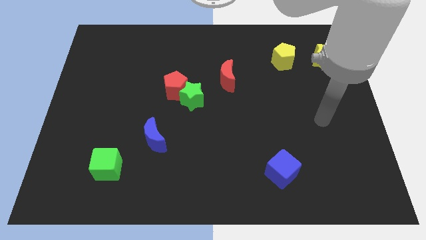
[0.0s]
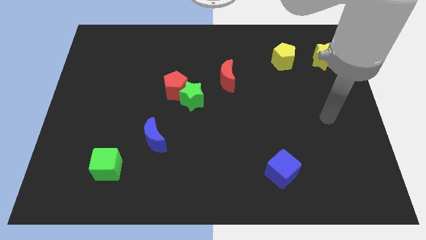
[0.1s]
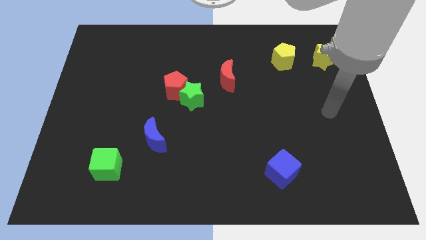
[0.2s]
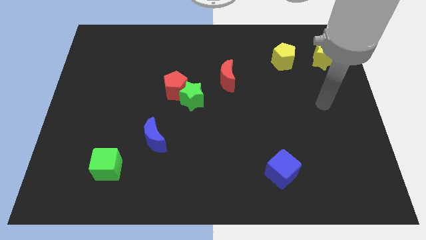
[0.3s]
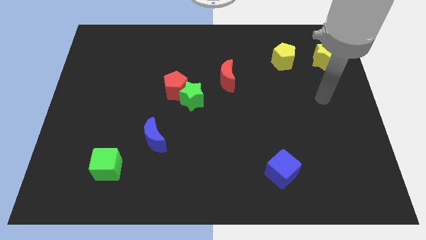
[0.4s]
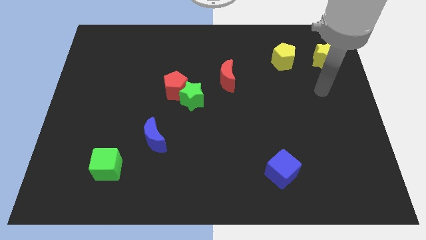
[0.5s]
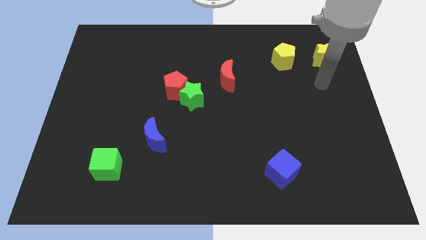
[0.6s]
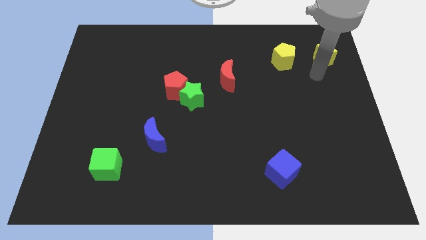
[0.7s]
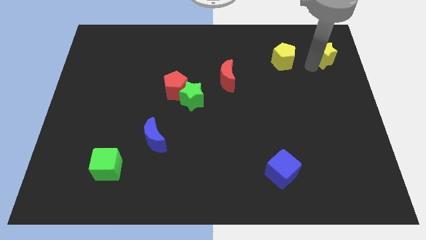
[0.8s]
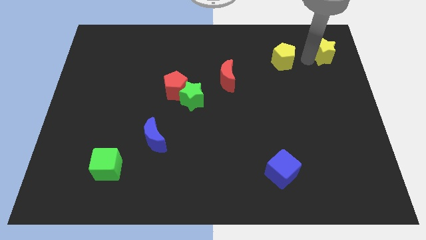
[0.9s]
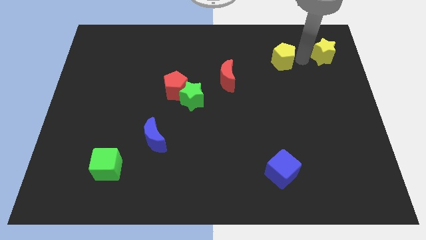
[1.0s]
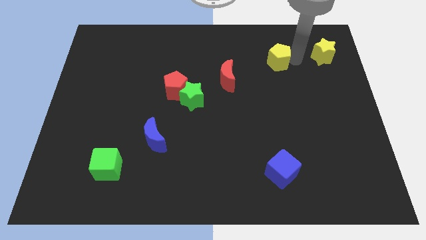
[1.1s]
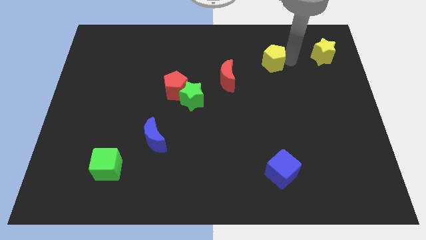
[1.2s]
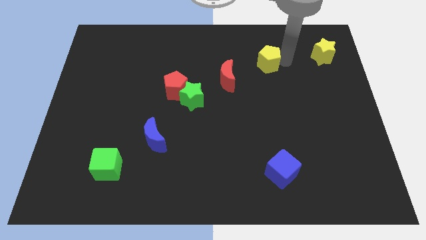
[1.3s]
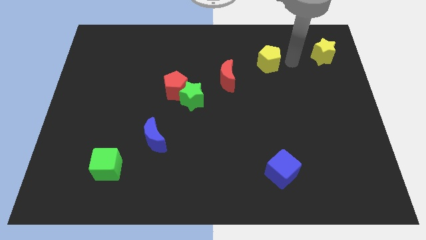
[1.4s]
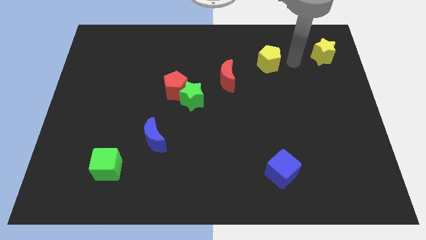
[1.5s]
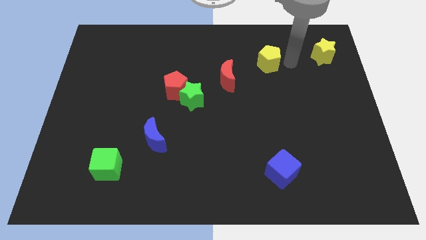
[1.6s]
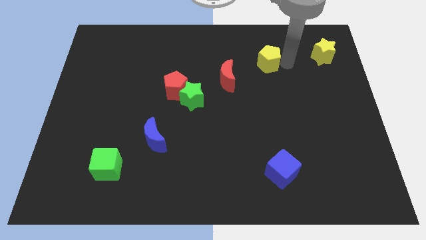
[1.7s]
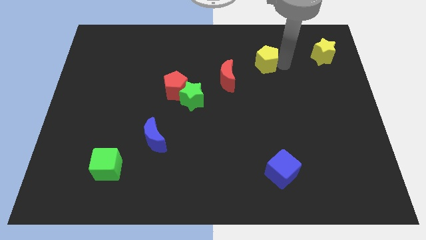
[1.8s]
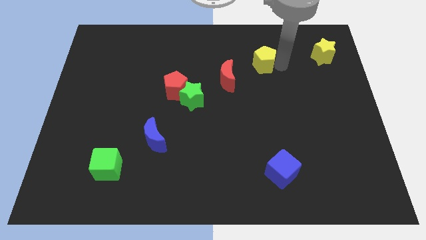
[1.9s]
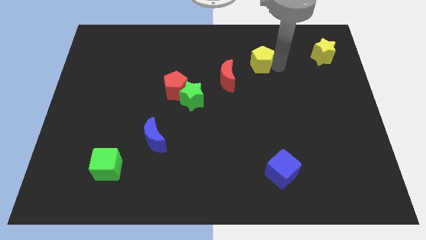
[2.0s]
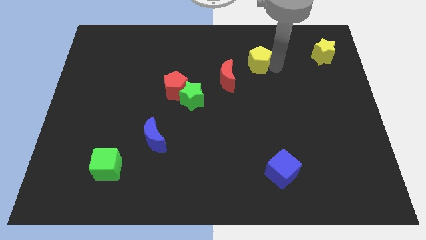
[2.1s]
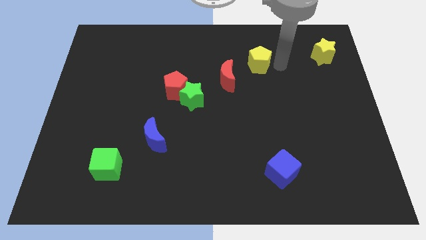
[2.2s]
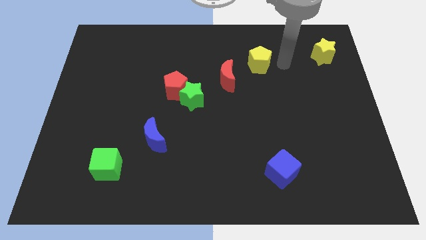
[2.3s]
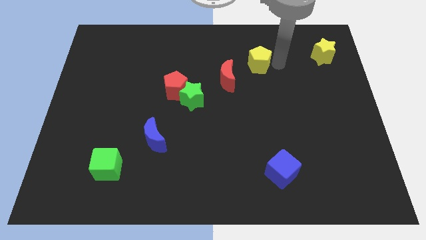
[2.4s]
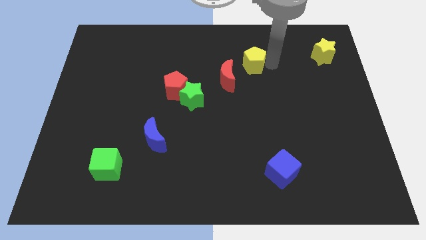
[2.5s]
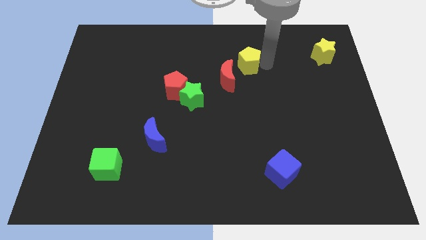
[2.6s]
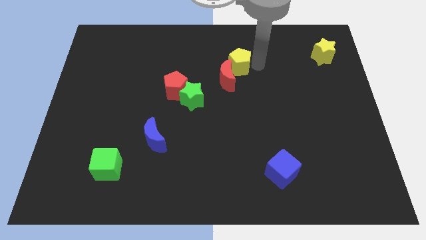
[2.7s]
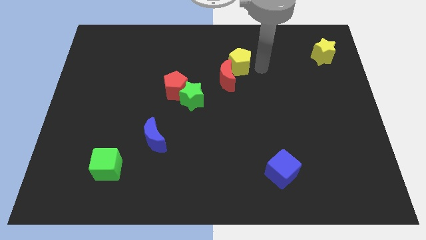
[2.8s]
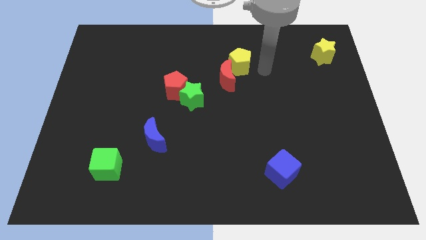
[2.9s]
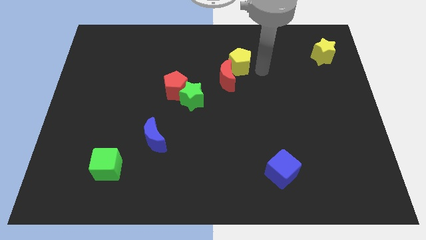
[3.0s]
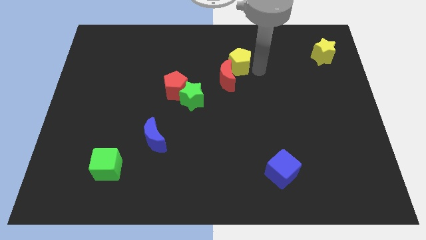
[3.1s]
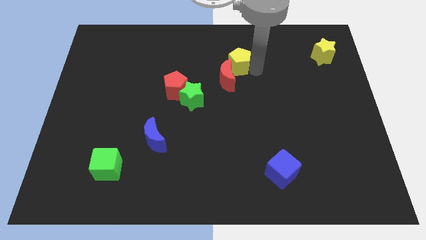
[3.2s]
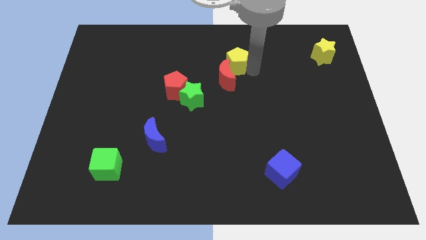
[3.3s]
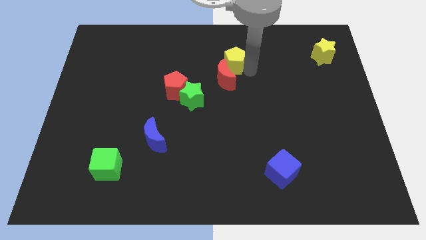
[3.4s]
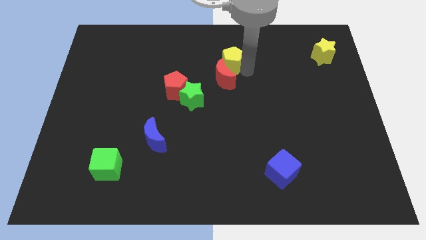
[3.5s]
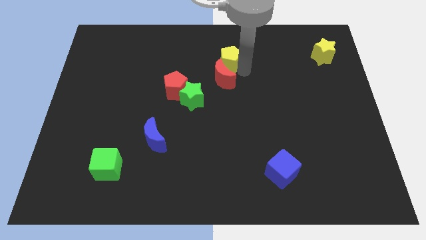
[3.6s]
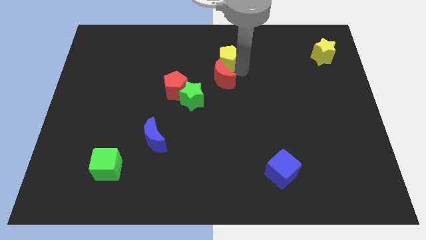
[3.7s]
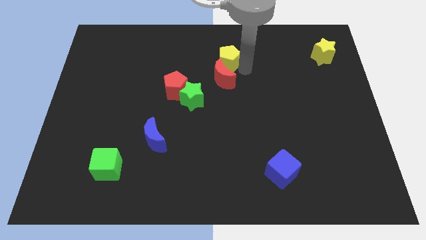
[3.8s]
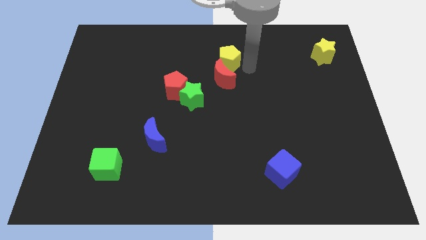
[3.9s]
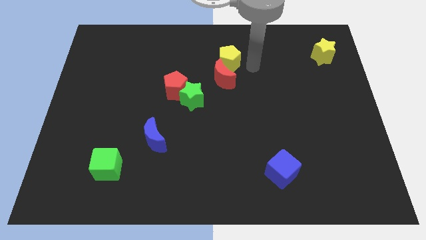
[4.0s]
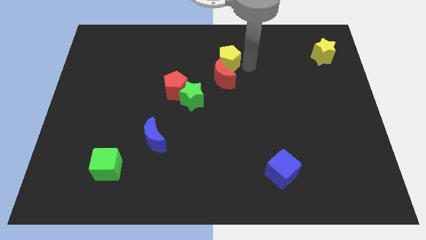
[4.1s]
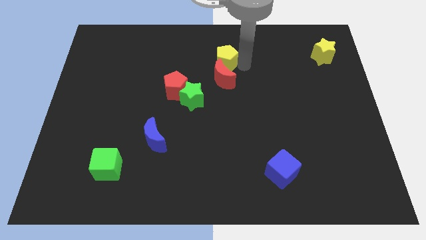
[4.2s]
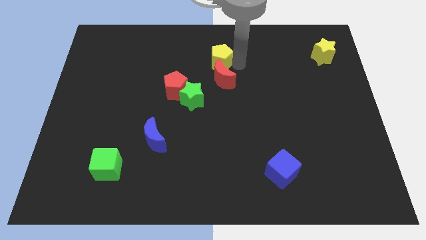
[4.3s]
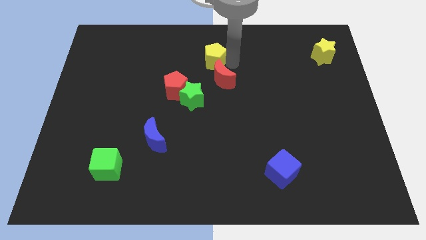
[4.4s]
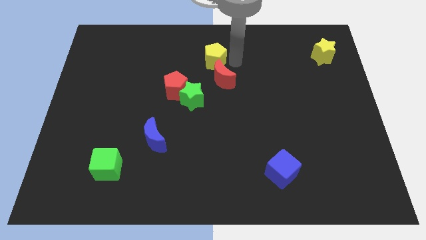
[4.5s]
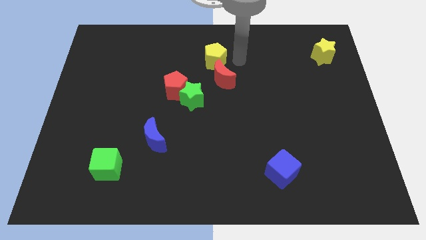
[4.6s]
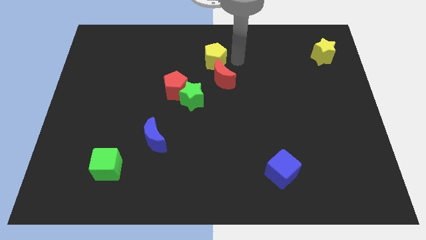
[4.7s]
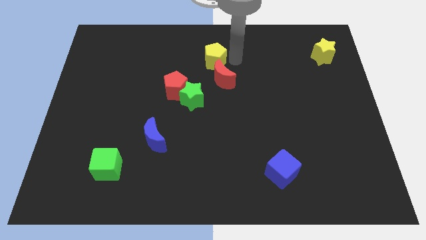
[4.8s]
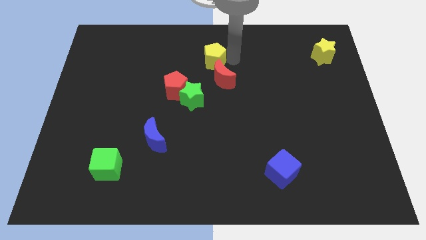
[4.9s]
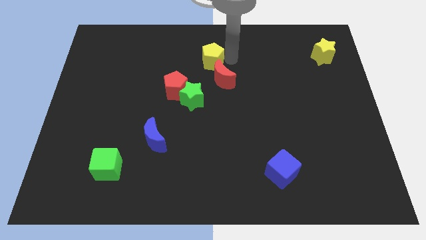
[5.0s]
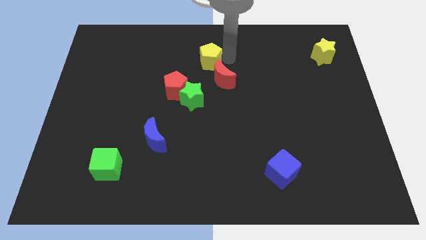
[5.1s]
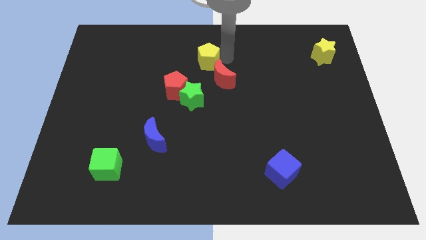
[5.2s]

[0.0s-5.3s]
move the yellow pentagon to the left

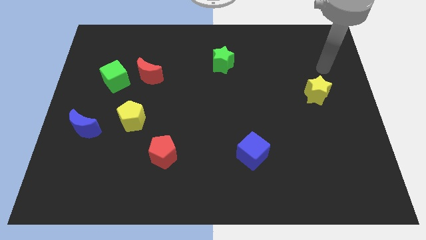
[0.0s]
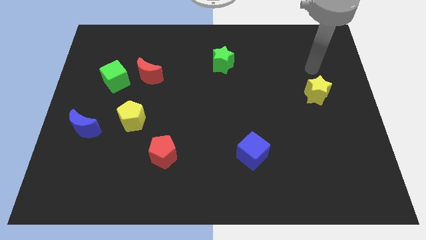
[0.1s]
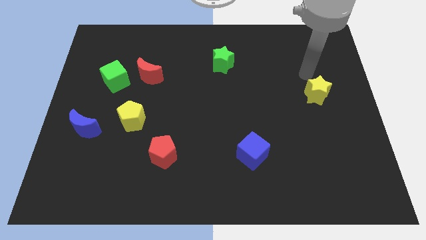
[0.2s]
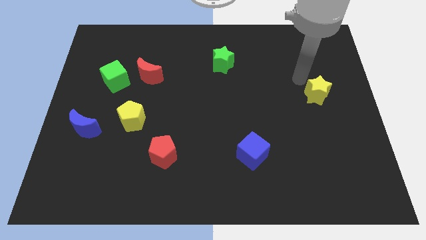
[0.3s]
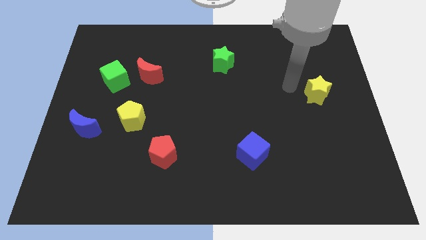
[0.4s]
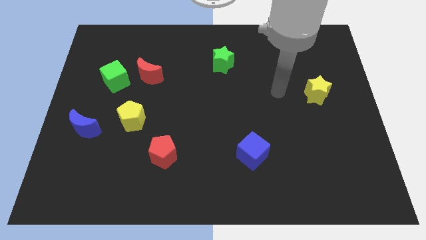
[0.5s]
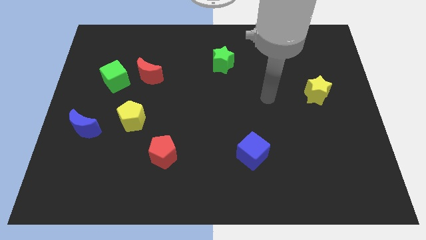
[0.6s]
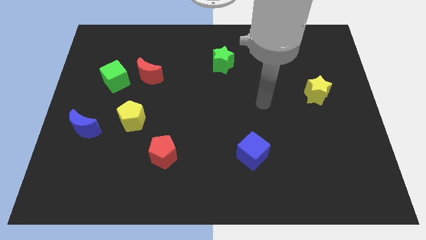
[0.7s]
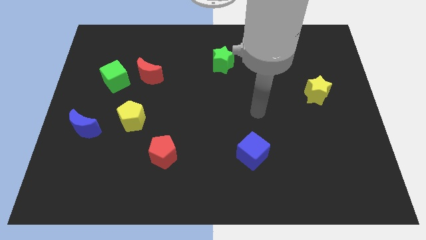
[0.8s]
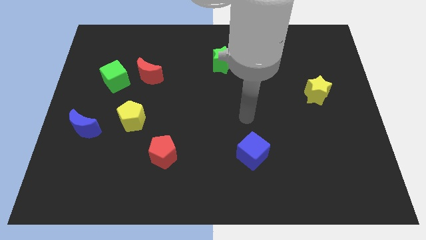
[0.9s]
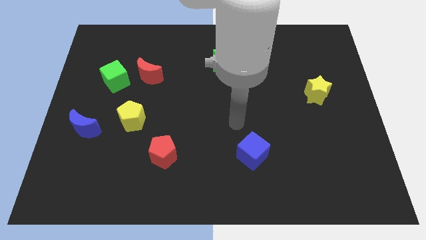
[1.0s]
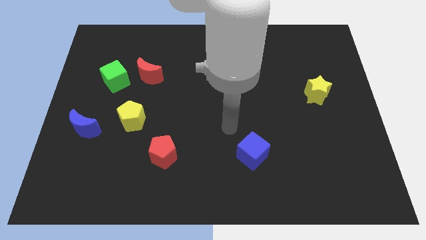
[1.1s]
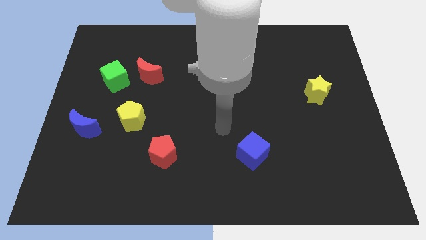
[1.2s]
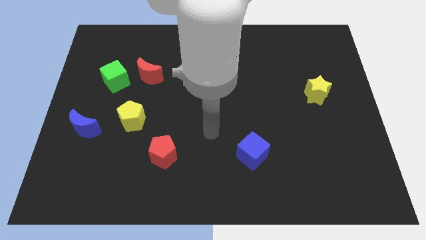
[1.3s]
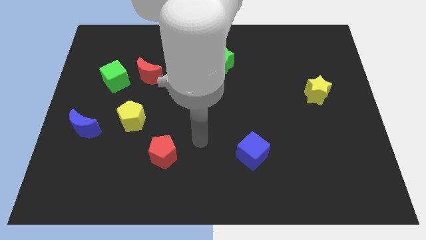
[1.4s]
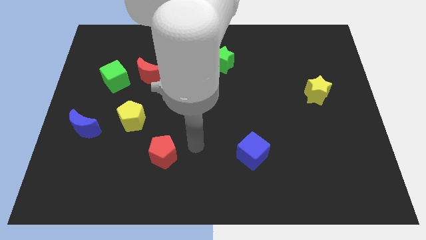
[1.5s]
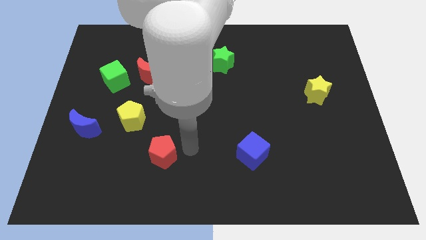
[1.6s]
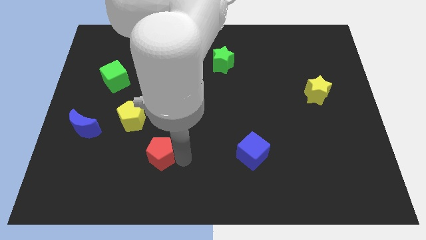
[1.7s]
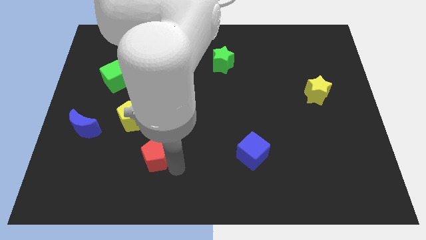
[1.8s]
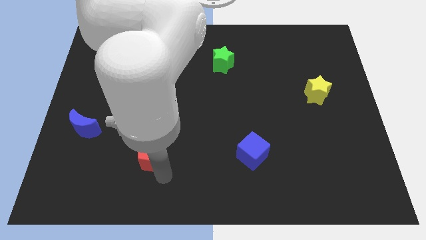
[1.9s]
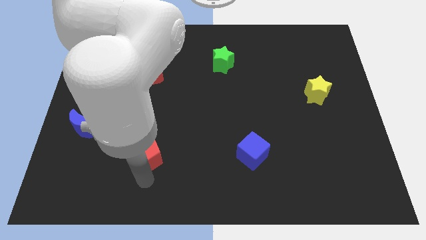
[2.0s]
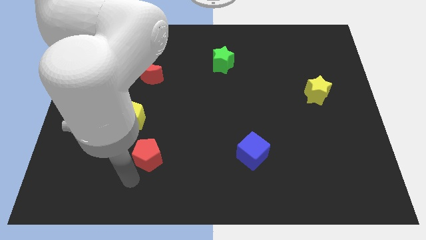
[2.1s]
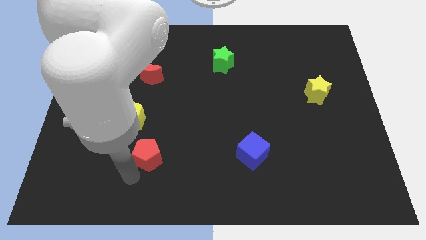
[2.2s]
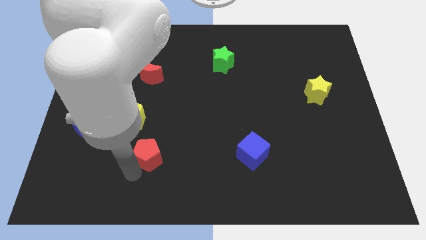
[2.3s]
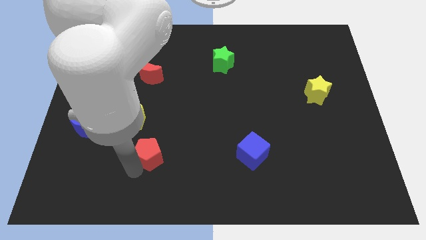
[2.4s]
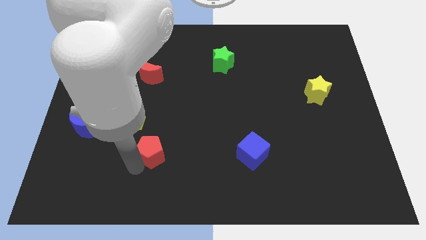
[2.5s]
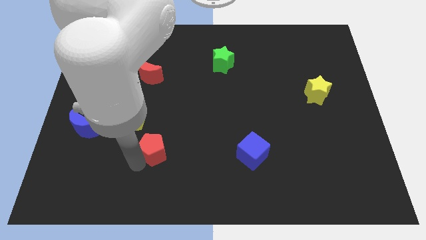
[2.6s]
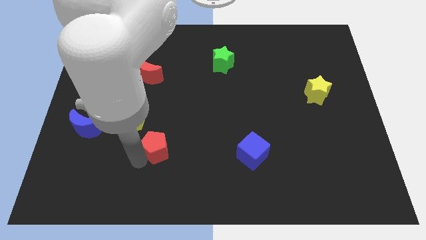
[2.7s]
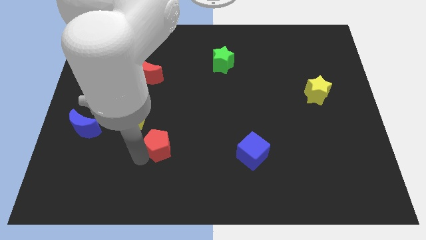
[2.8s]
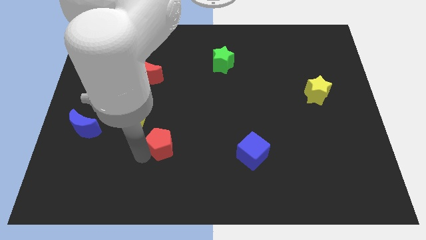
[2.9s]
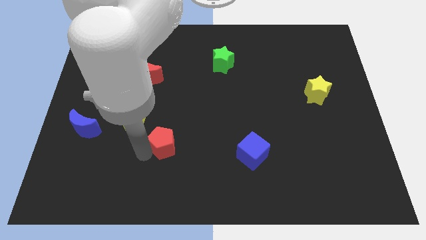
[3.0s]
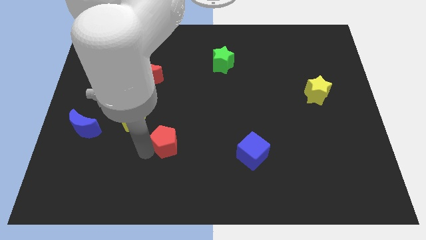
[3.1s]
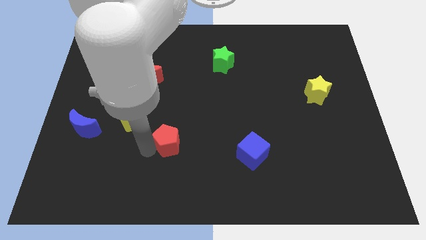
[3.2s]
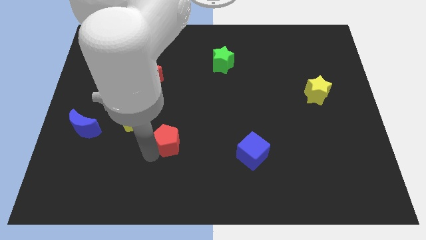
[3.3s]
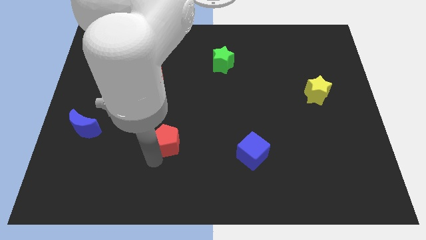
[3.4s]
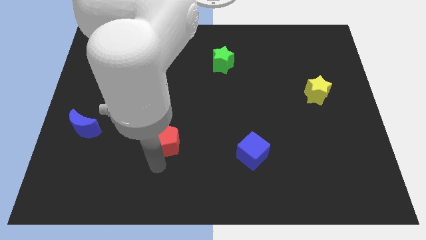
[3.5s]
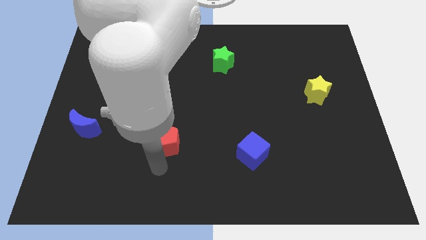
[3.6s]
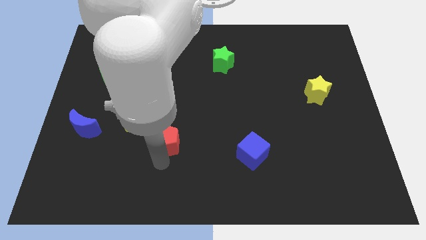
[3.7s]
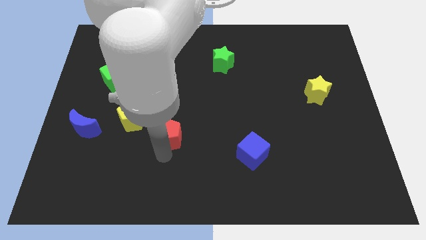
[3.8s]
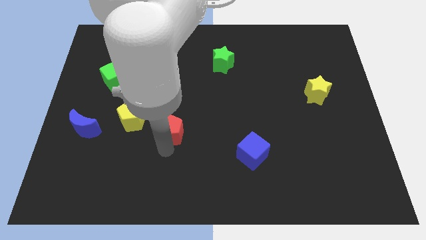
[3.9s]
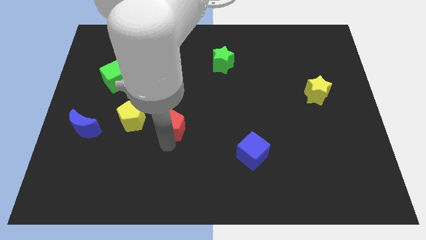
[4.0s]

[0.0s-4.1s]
move the red pentagon up somewhat
